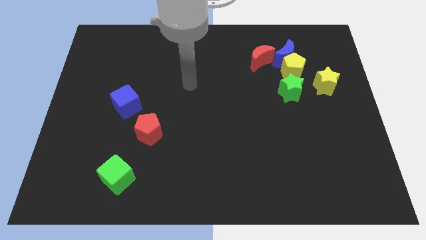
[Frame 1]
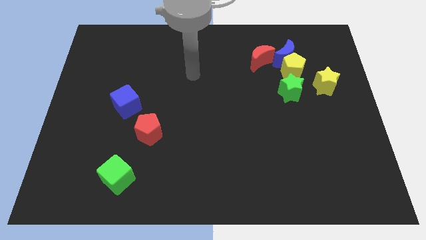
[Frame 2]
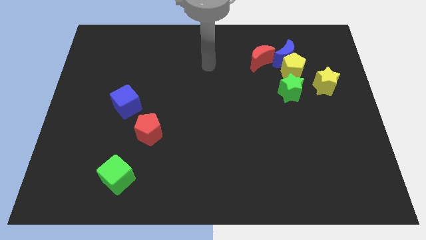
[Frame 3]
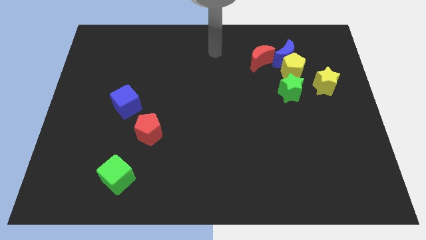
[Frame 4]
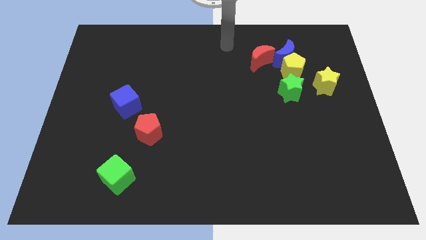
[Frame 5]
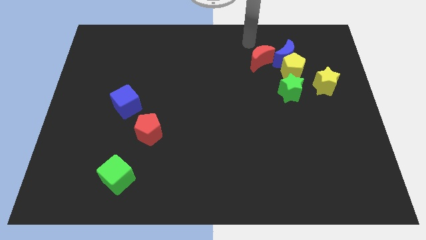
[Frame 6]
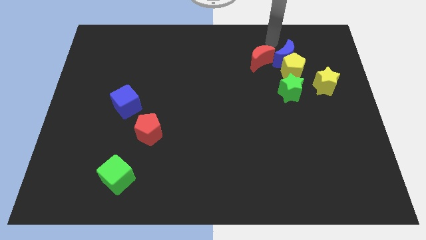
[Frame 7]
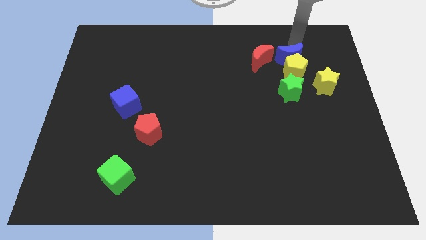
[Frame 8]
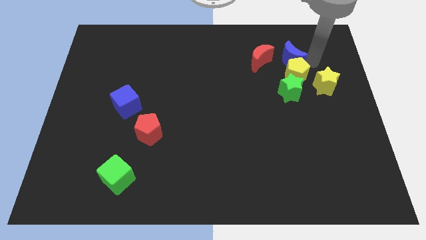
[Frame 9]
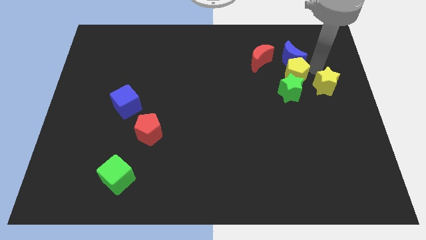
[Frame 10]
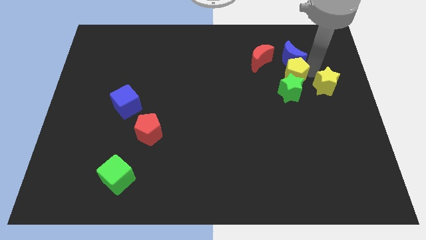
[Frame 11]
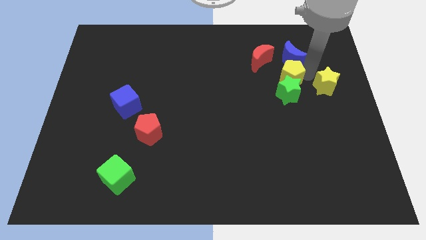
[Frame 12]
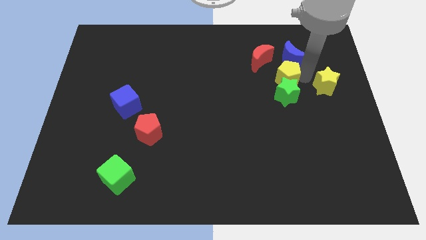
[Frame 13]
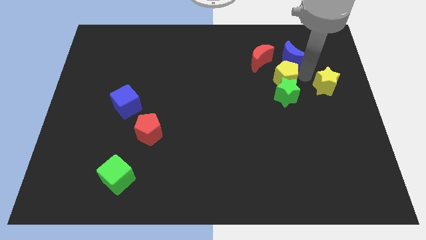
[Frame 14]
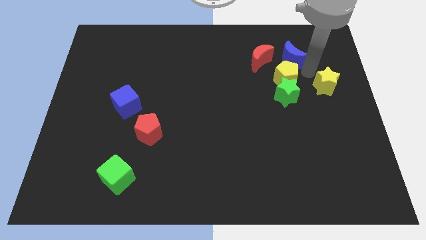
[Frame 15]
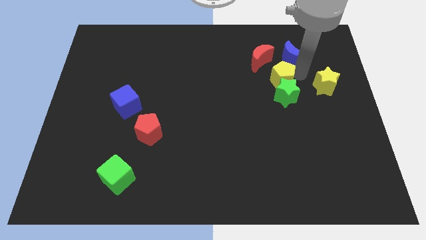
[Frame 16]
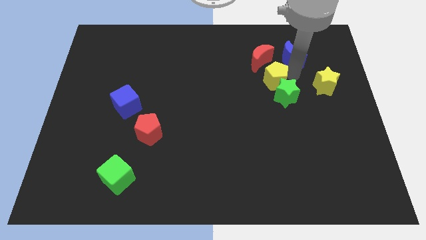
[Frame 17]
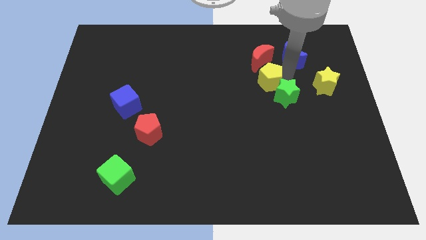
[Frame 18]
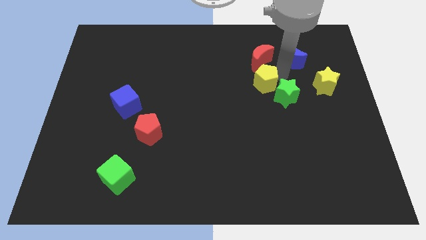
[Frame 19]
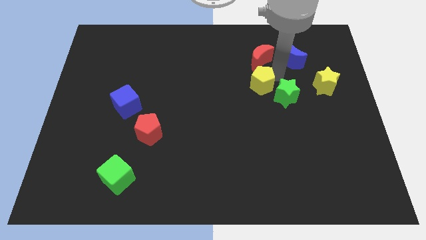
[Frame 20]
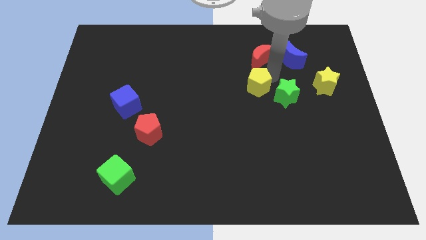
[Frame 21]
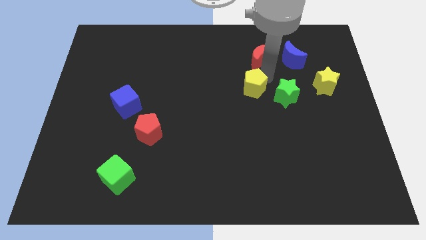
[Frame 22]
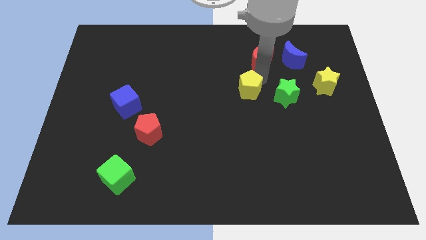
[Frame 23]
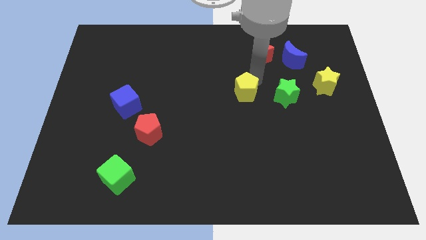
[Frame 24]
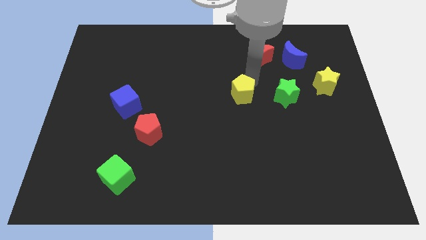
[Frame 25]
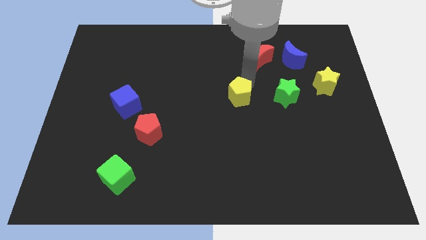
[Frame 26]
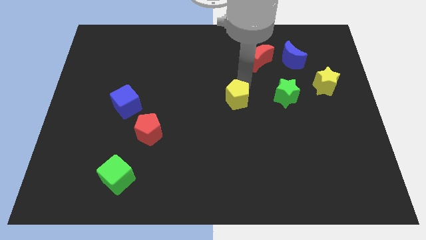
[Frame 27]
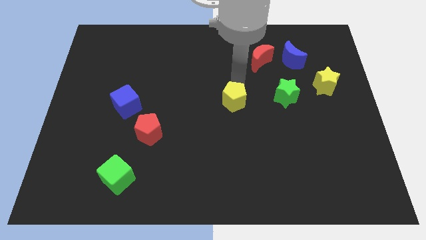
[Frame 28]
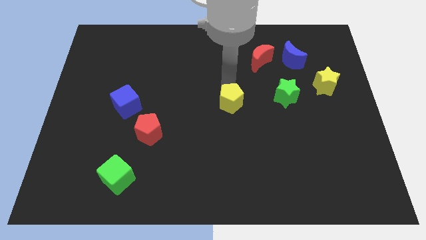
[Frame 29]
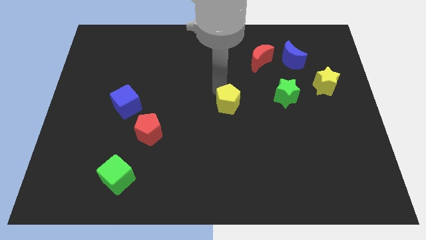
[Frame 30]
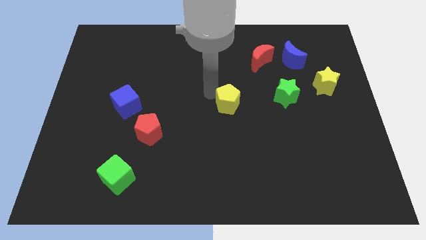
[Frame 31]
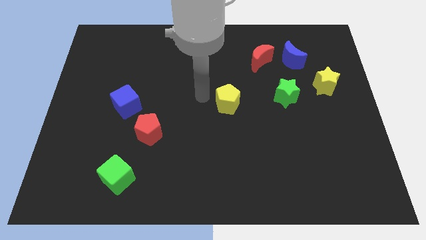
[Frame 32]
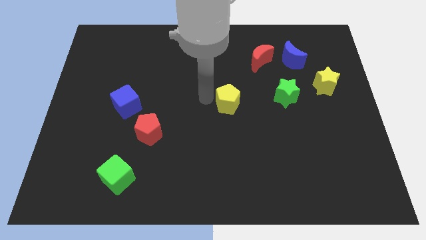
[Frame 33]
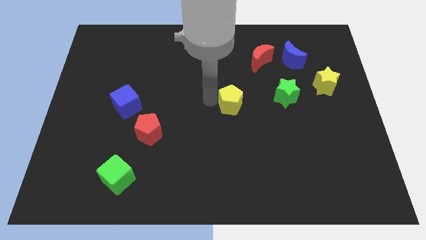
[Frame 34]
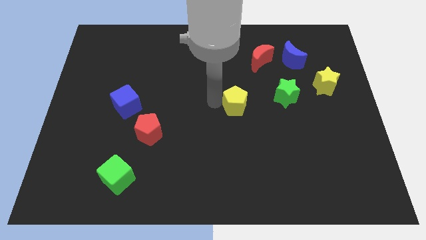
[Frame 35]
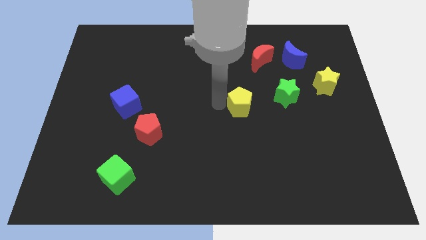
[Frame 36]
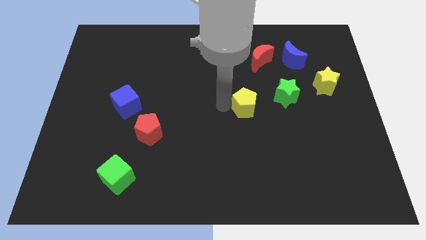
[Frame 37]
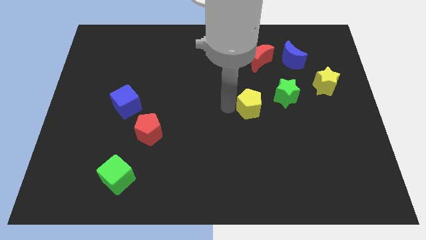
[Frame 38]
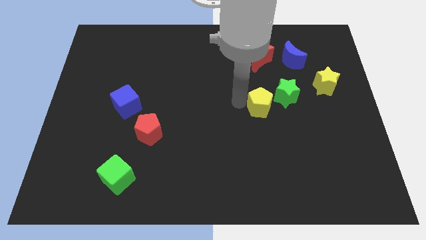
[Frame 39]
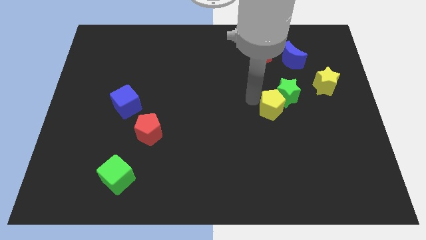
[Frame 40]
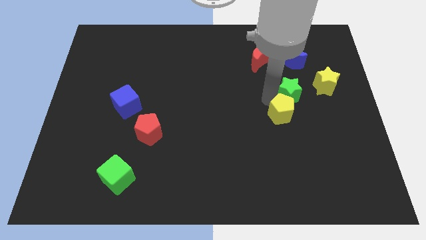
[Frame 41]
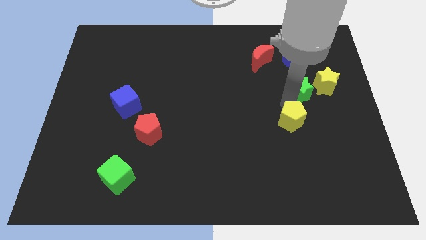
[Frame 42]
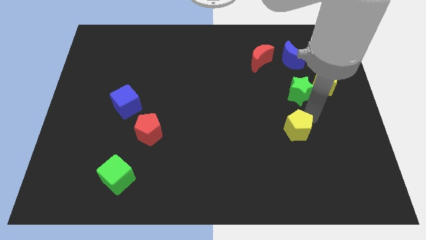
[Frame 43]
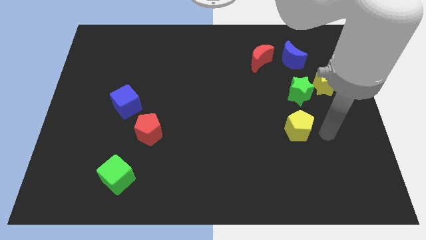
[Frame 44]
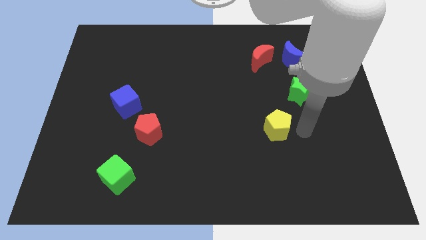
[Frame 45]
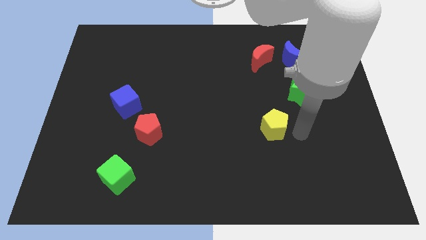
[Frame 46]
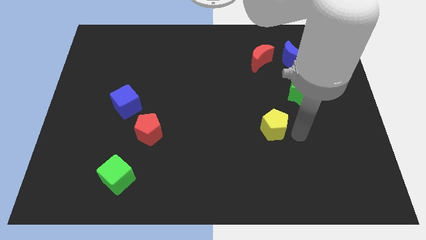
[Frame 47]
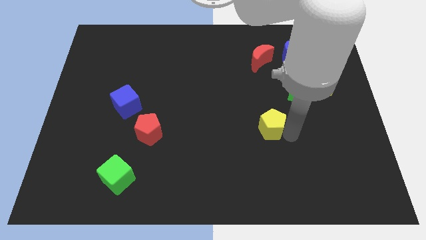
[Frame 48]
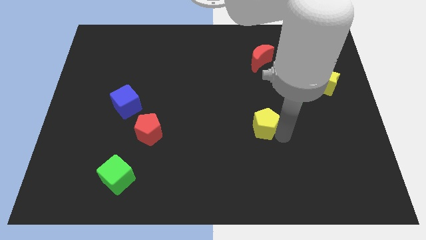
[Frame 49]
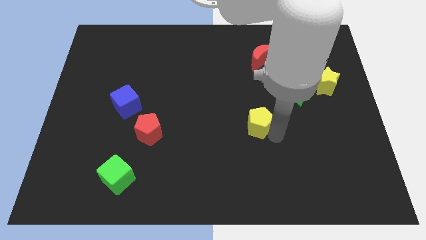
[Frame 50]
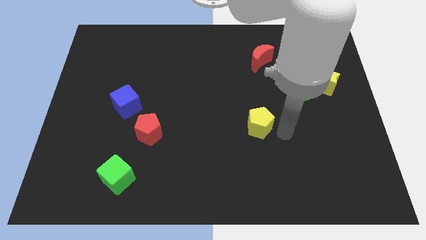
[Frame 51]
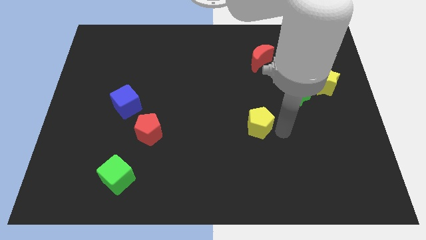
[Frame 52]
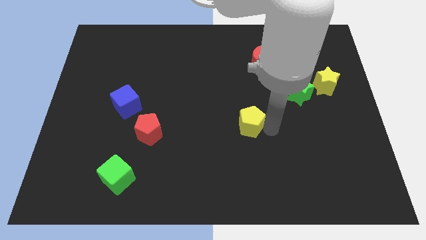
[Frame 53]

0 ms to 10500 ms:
move the yellow pentagon downwards and to the left

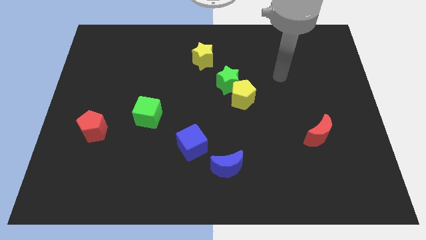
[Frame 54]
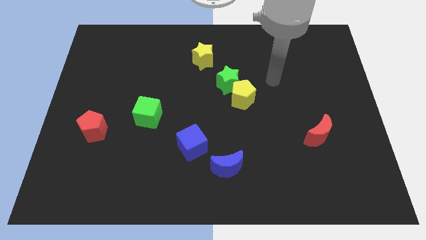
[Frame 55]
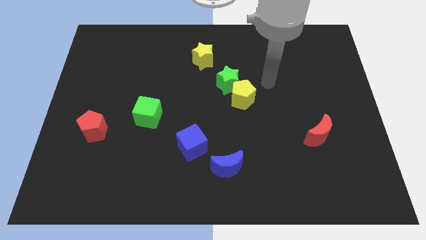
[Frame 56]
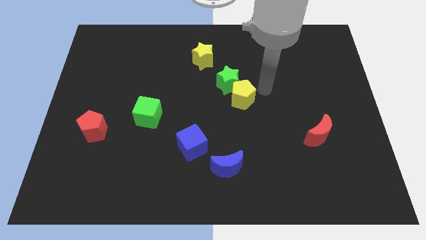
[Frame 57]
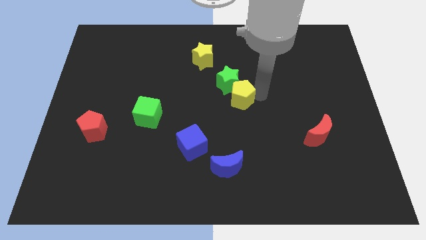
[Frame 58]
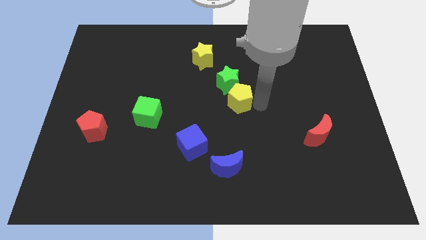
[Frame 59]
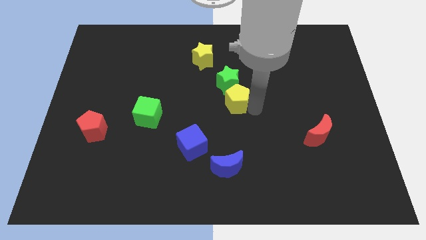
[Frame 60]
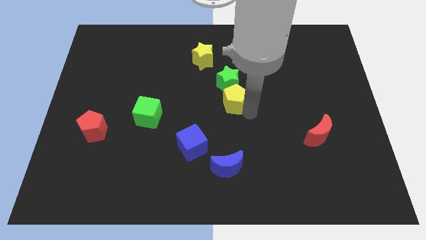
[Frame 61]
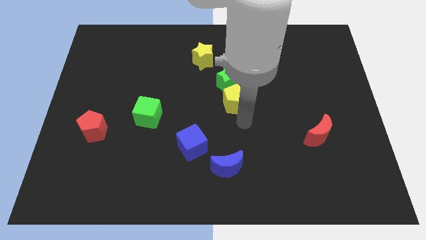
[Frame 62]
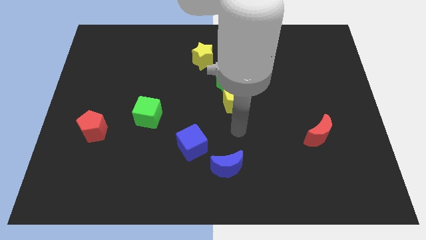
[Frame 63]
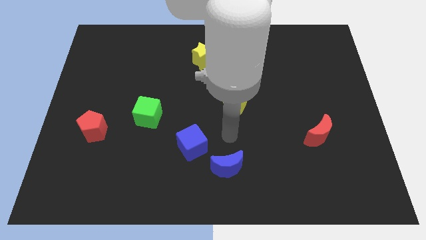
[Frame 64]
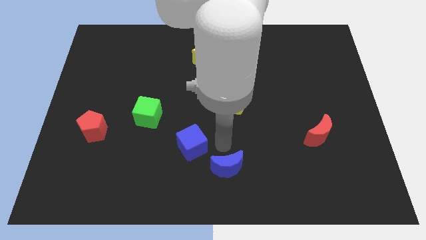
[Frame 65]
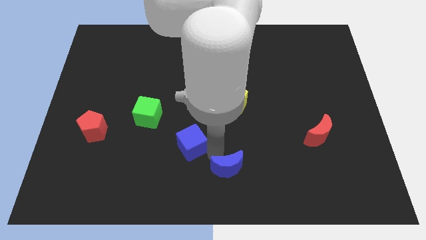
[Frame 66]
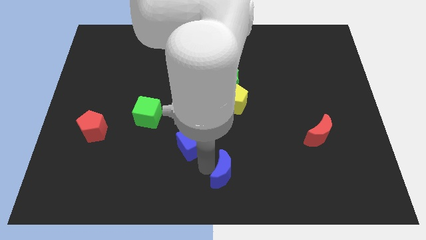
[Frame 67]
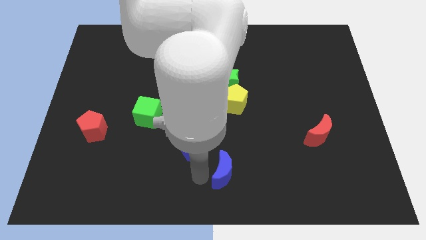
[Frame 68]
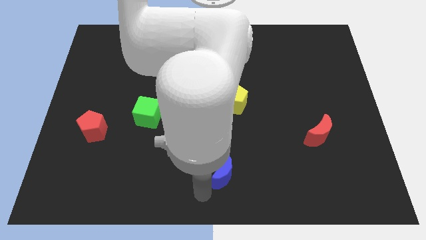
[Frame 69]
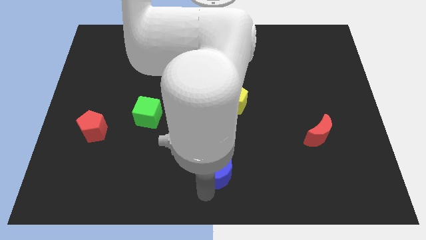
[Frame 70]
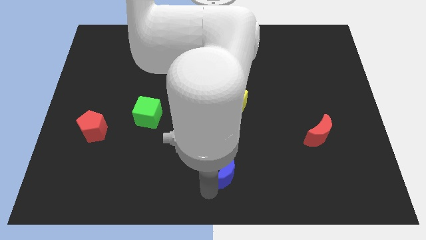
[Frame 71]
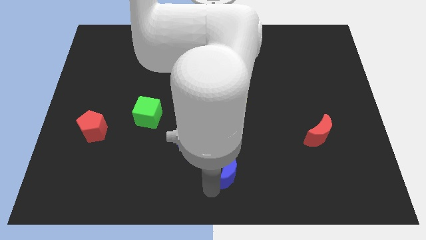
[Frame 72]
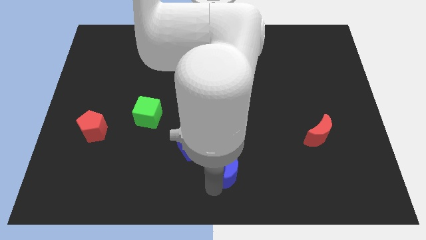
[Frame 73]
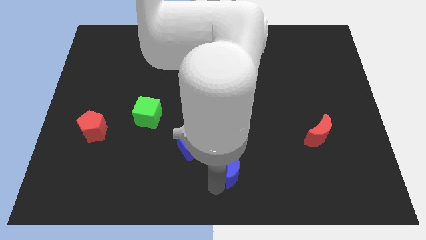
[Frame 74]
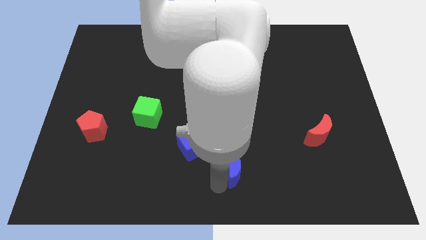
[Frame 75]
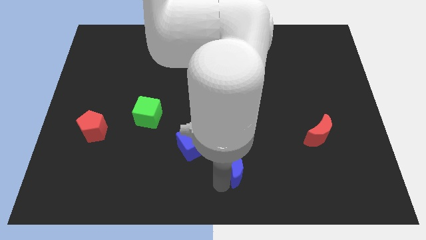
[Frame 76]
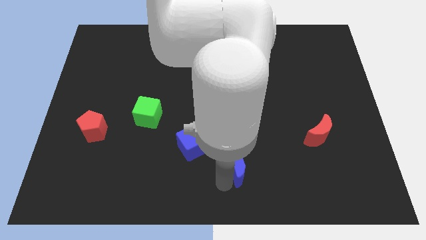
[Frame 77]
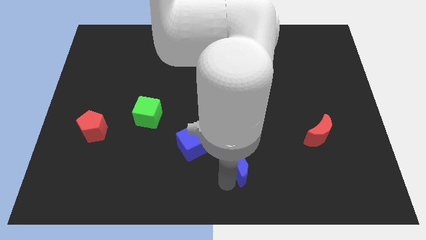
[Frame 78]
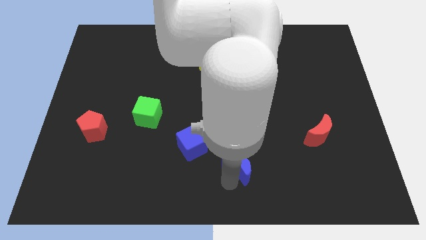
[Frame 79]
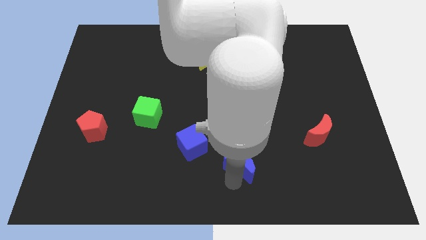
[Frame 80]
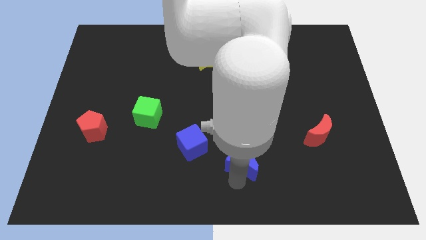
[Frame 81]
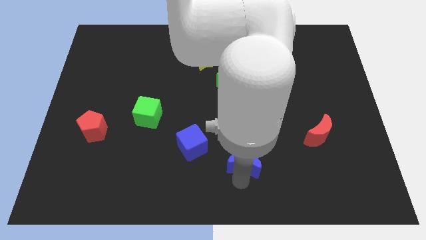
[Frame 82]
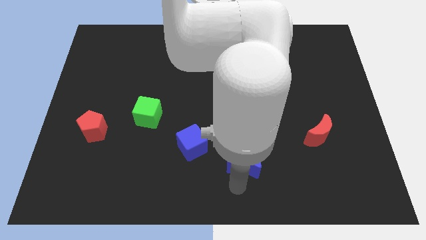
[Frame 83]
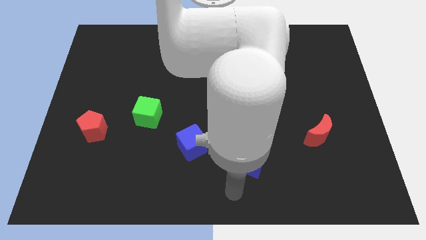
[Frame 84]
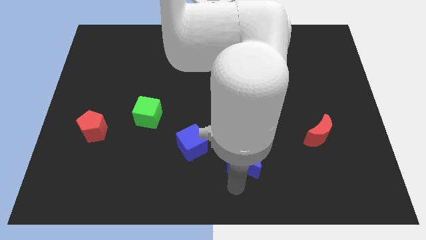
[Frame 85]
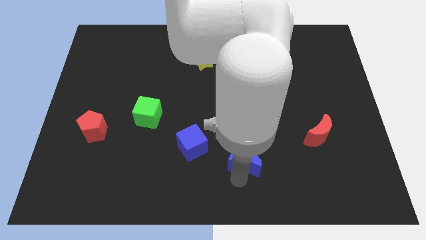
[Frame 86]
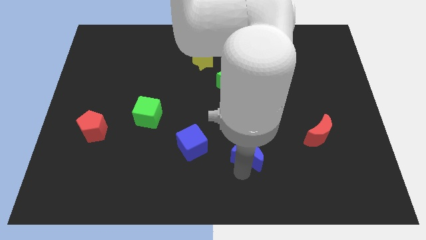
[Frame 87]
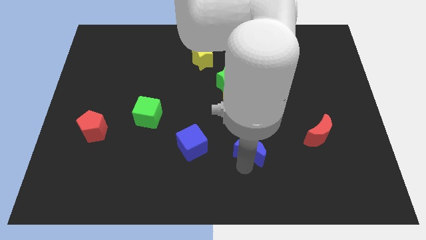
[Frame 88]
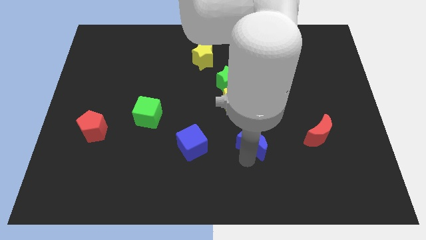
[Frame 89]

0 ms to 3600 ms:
move the blue moon upwards and to the right diagonally a little bit
